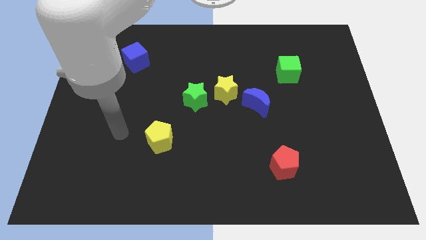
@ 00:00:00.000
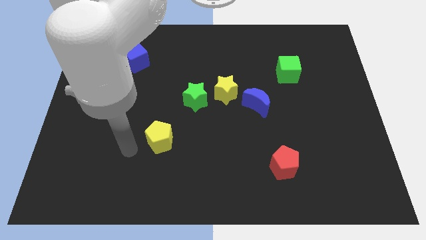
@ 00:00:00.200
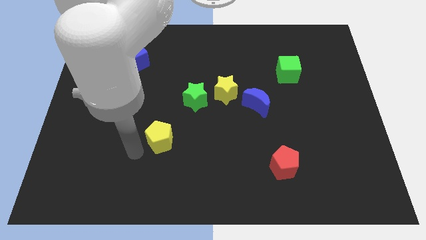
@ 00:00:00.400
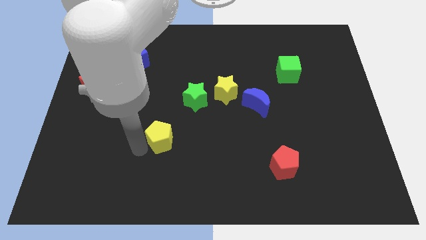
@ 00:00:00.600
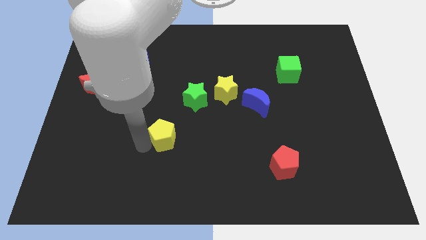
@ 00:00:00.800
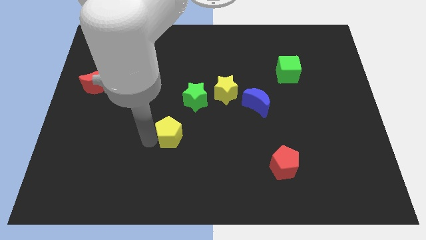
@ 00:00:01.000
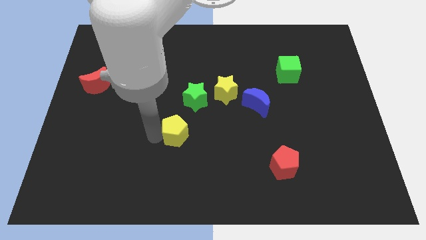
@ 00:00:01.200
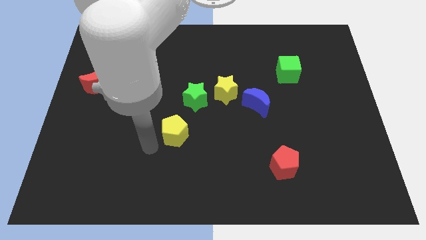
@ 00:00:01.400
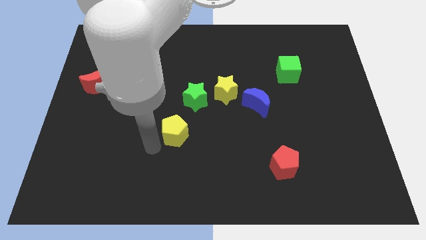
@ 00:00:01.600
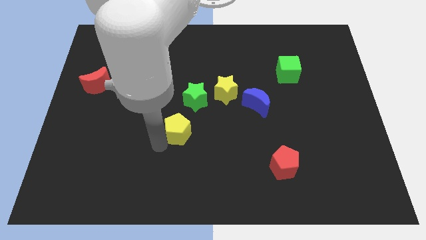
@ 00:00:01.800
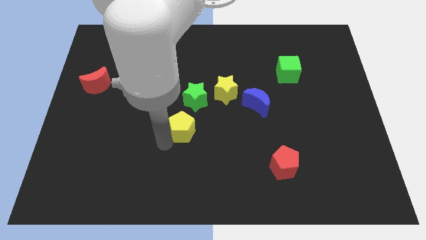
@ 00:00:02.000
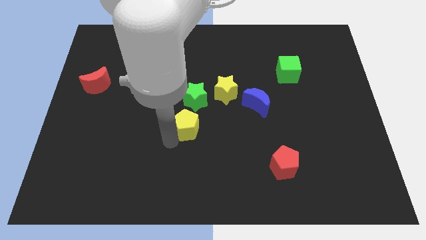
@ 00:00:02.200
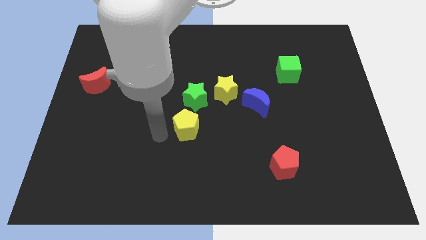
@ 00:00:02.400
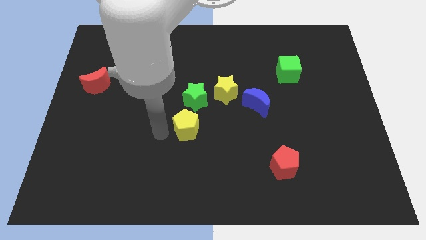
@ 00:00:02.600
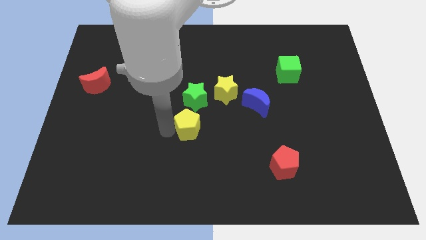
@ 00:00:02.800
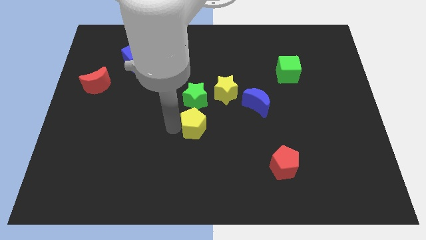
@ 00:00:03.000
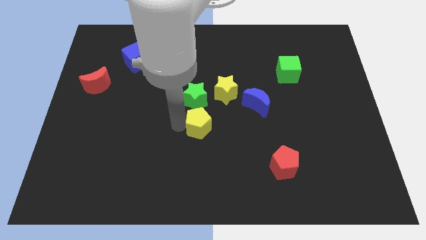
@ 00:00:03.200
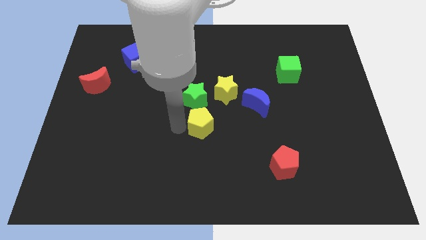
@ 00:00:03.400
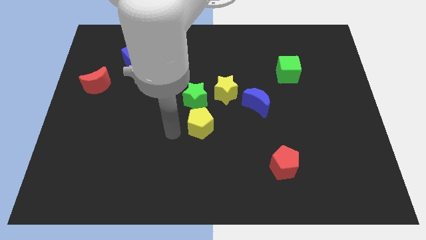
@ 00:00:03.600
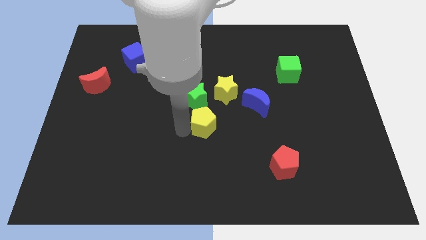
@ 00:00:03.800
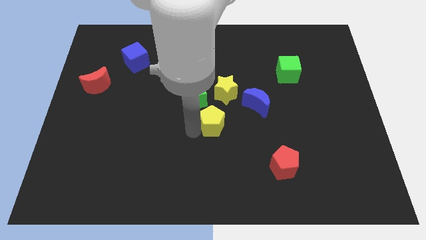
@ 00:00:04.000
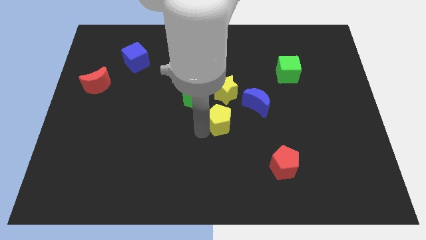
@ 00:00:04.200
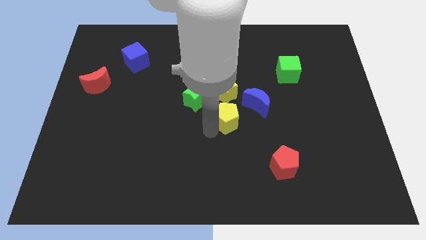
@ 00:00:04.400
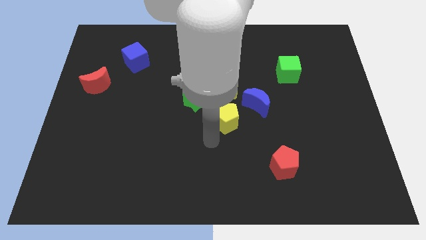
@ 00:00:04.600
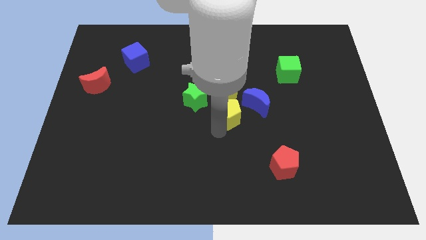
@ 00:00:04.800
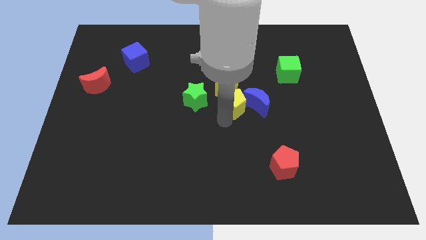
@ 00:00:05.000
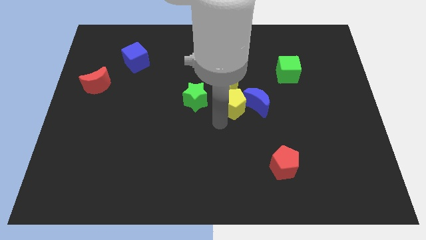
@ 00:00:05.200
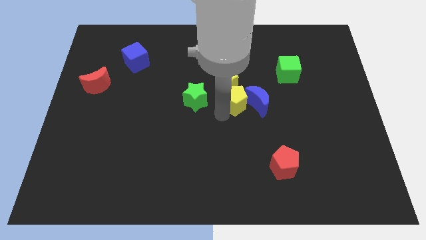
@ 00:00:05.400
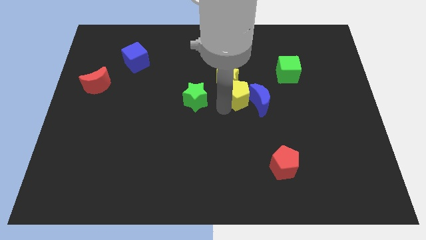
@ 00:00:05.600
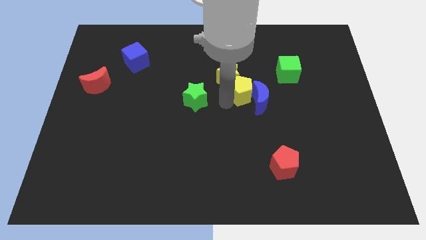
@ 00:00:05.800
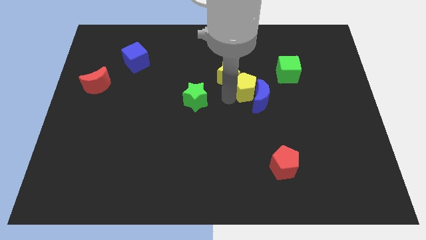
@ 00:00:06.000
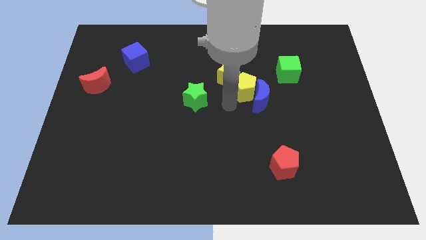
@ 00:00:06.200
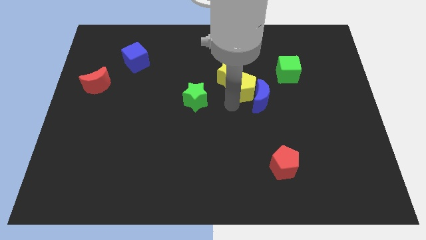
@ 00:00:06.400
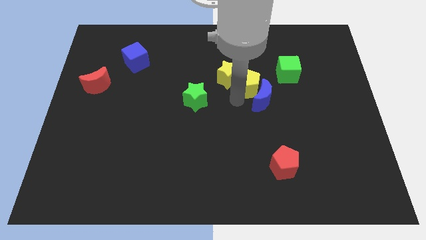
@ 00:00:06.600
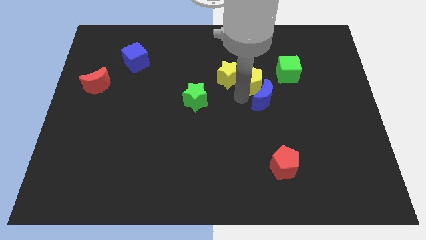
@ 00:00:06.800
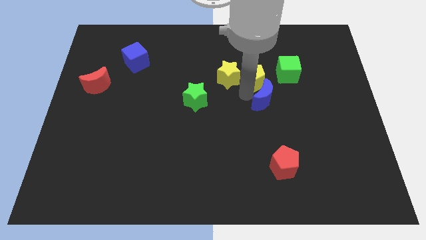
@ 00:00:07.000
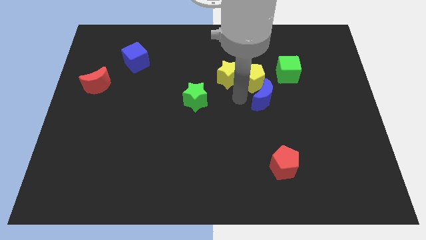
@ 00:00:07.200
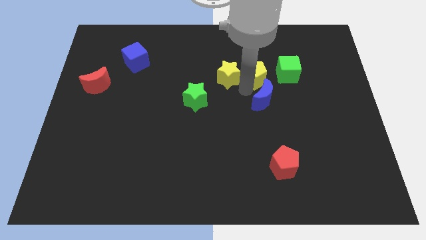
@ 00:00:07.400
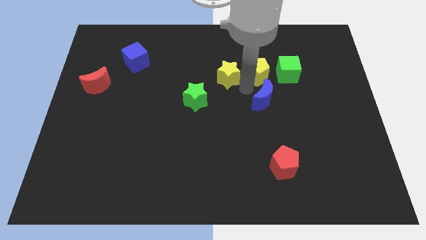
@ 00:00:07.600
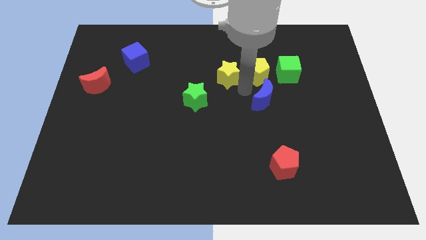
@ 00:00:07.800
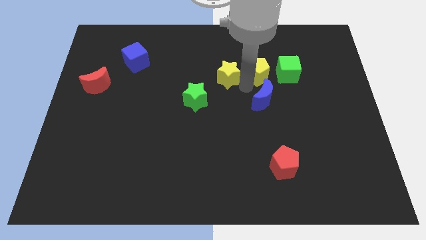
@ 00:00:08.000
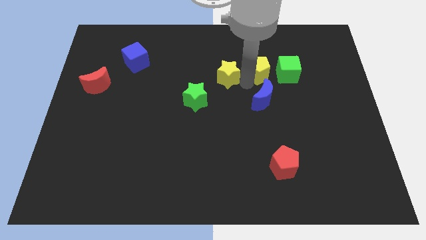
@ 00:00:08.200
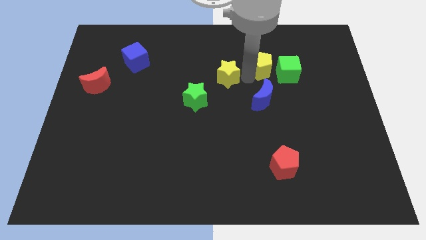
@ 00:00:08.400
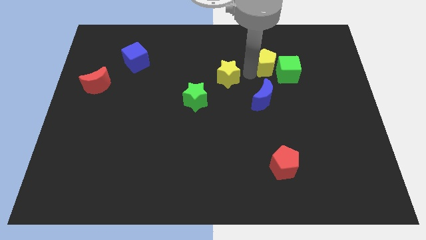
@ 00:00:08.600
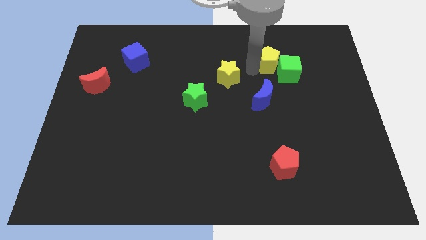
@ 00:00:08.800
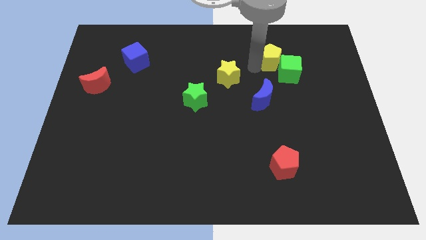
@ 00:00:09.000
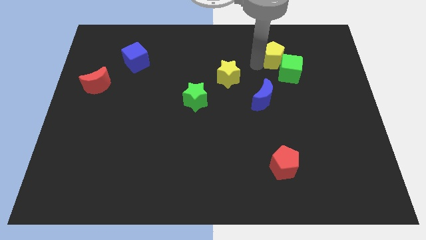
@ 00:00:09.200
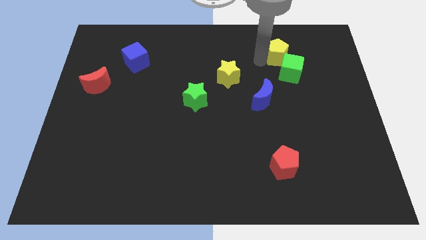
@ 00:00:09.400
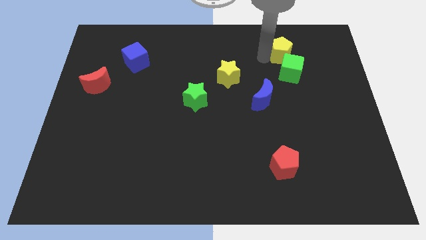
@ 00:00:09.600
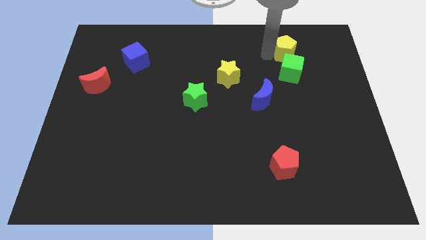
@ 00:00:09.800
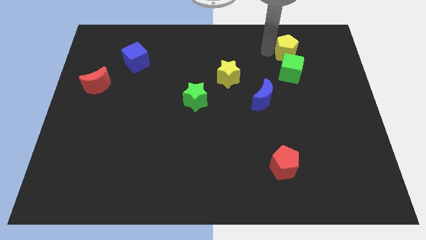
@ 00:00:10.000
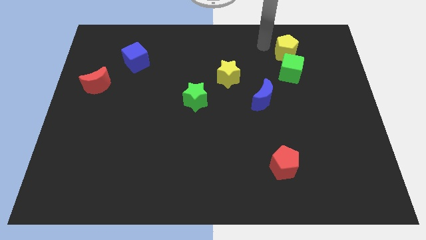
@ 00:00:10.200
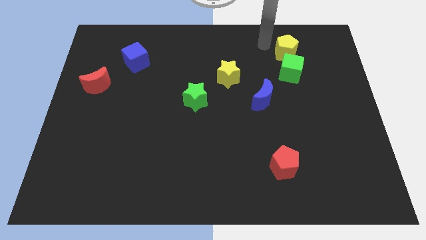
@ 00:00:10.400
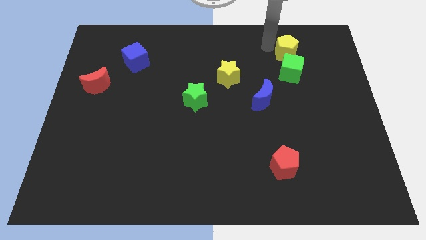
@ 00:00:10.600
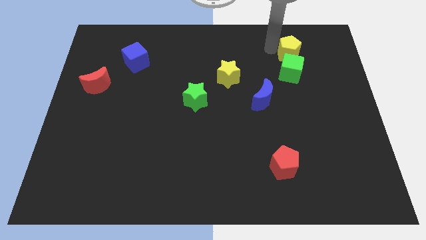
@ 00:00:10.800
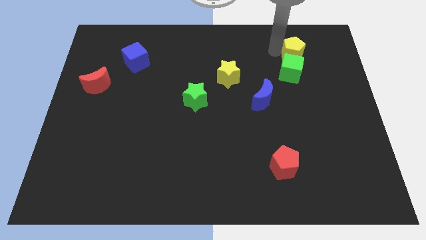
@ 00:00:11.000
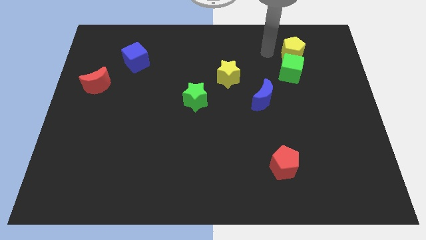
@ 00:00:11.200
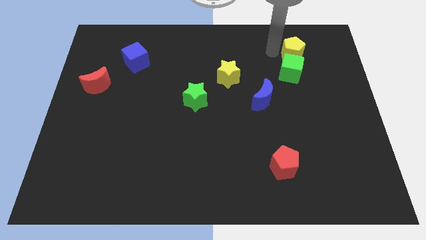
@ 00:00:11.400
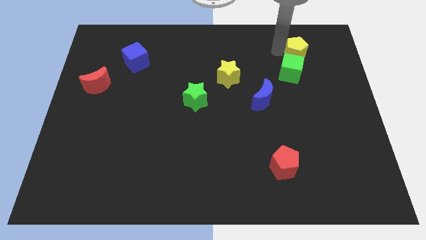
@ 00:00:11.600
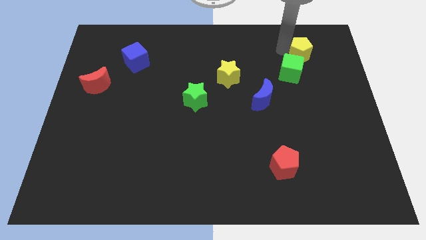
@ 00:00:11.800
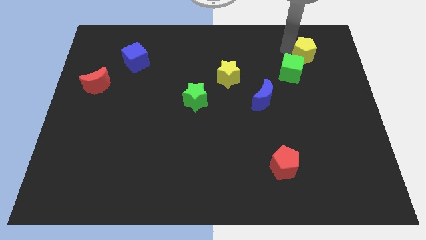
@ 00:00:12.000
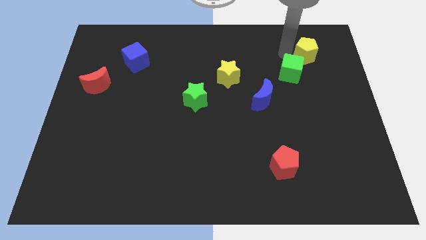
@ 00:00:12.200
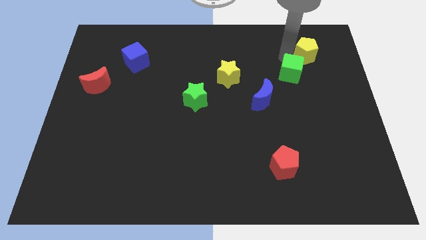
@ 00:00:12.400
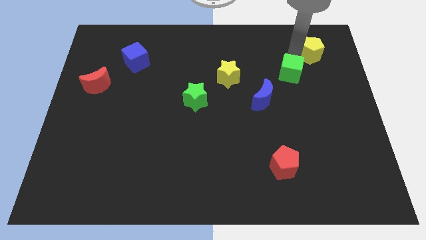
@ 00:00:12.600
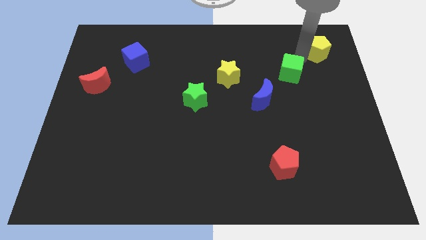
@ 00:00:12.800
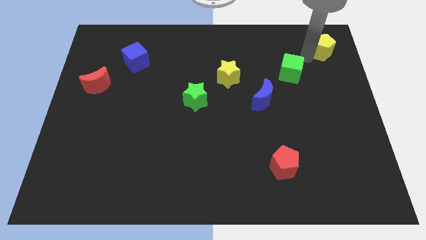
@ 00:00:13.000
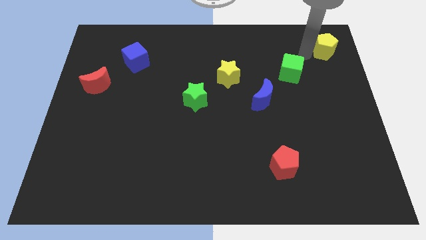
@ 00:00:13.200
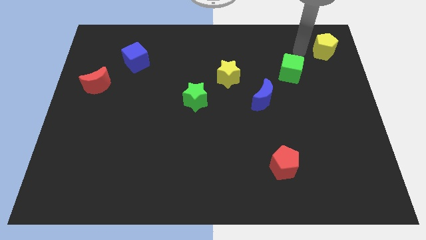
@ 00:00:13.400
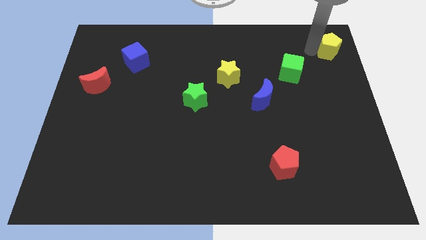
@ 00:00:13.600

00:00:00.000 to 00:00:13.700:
put the yellow pentagon to the top right corner

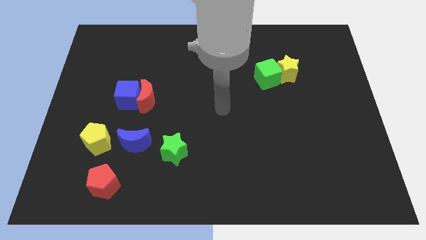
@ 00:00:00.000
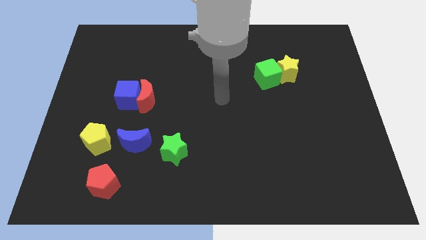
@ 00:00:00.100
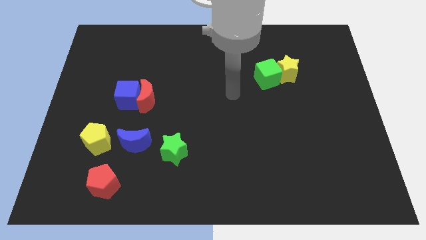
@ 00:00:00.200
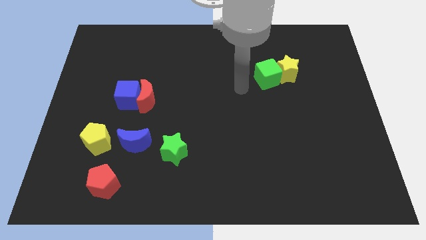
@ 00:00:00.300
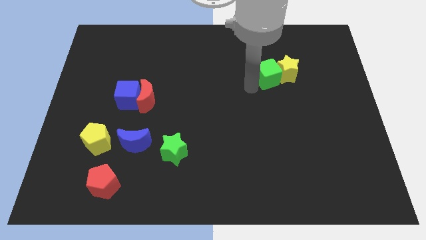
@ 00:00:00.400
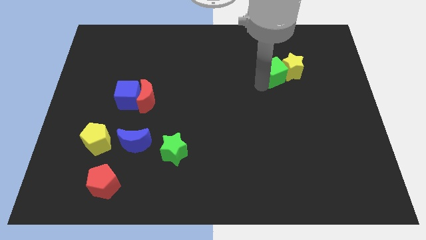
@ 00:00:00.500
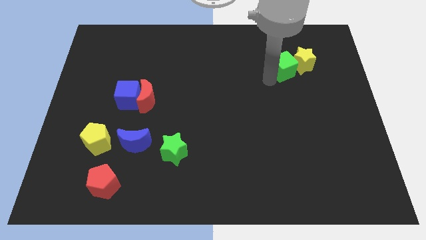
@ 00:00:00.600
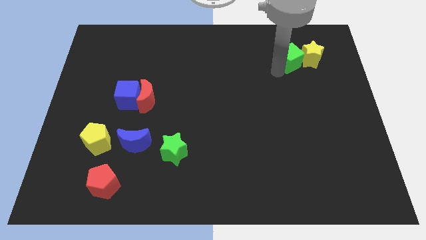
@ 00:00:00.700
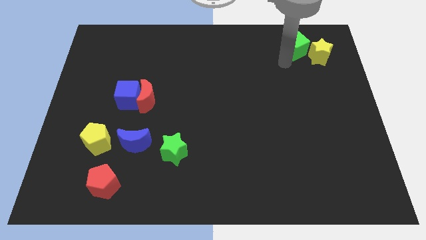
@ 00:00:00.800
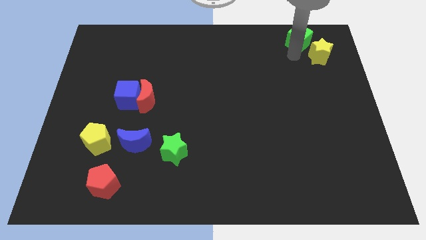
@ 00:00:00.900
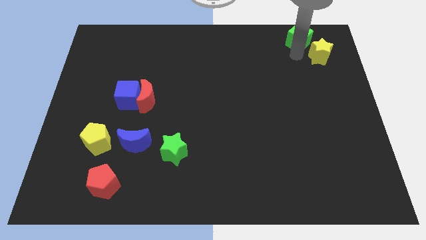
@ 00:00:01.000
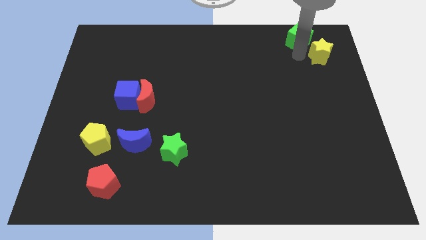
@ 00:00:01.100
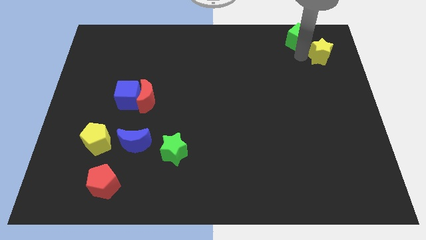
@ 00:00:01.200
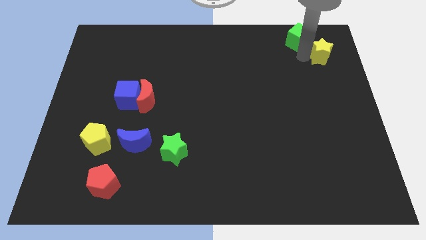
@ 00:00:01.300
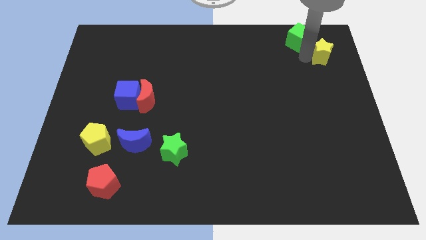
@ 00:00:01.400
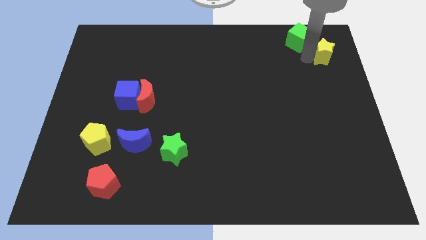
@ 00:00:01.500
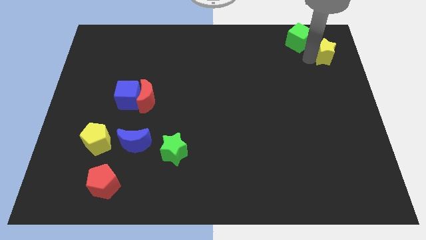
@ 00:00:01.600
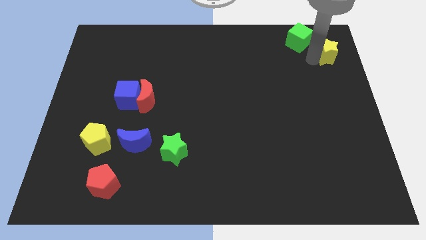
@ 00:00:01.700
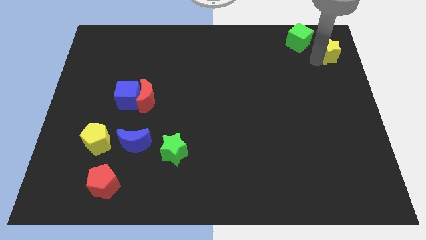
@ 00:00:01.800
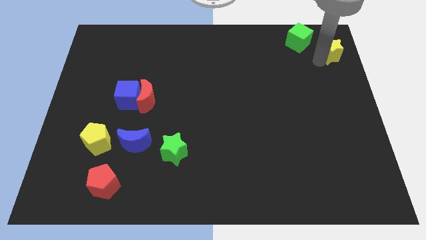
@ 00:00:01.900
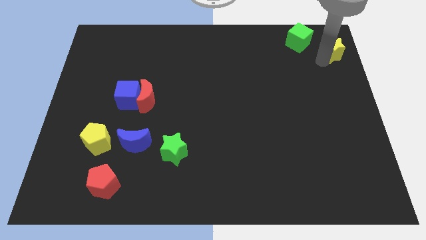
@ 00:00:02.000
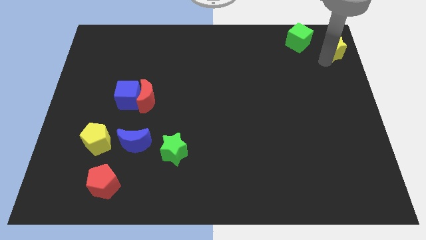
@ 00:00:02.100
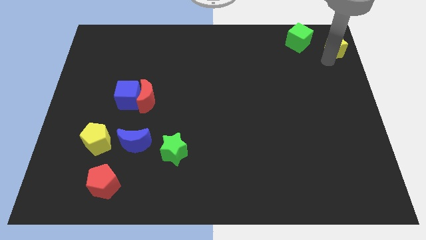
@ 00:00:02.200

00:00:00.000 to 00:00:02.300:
slide the yellow star to the top right corner
